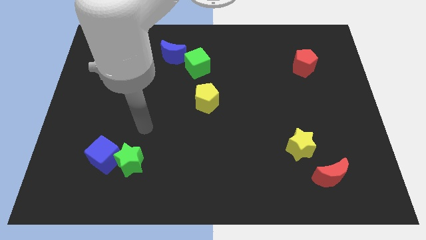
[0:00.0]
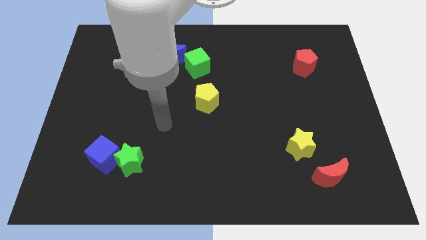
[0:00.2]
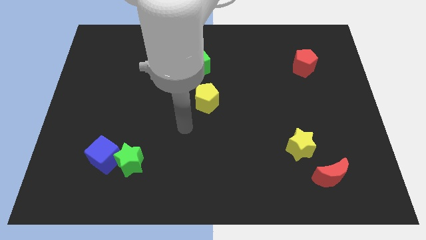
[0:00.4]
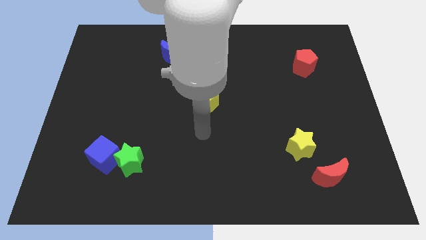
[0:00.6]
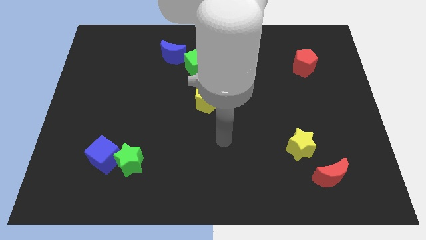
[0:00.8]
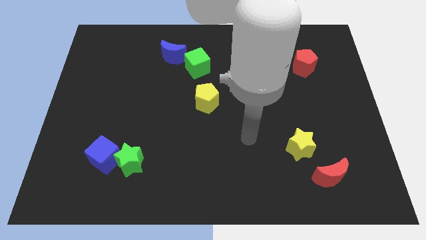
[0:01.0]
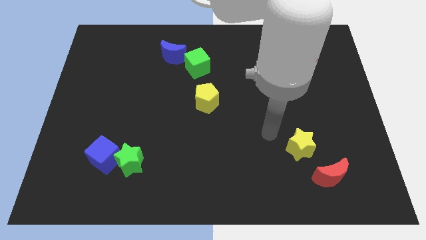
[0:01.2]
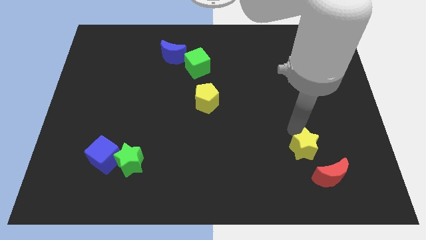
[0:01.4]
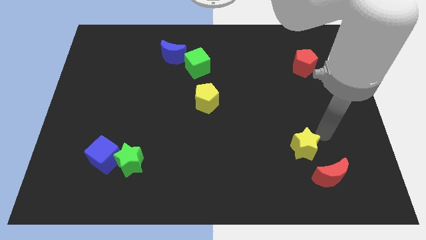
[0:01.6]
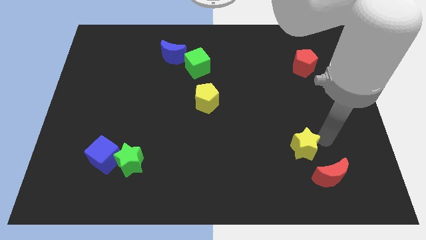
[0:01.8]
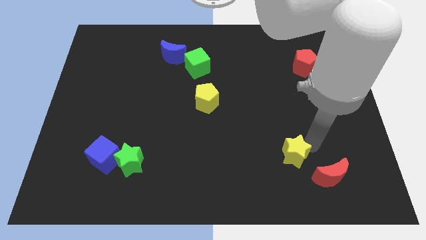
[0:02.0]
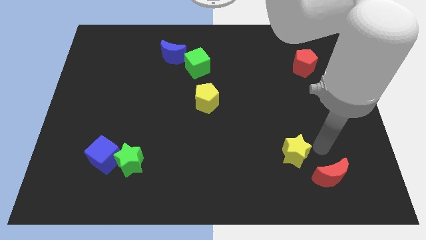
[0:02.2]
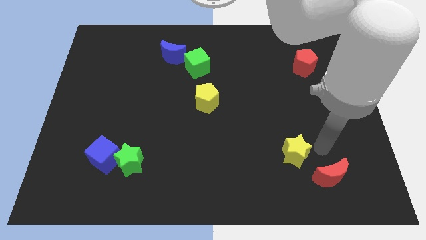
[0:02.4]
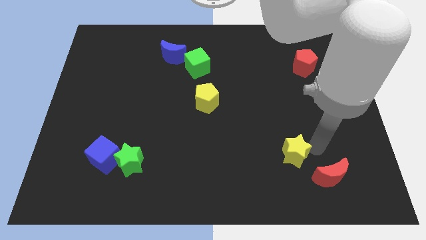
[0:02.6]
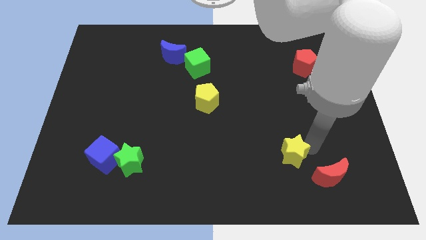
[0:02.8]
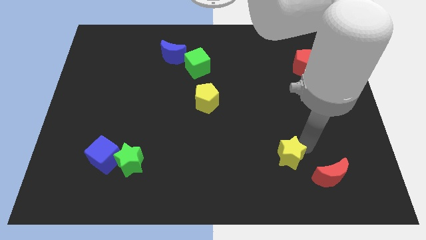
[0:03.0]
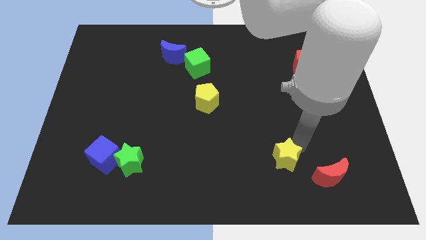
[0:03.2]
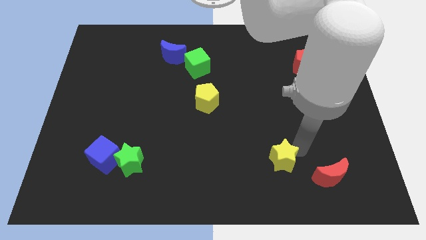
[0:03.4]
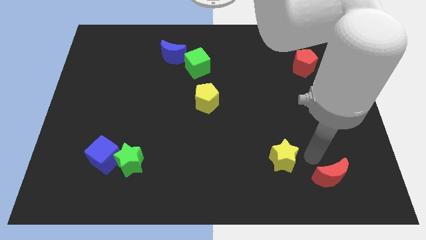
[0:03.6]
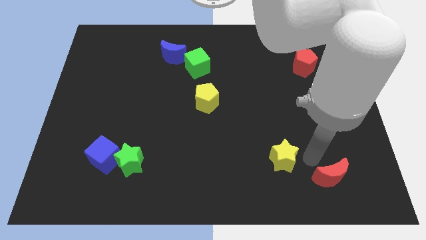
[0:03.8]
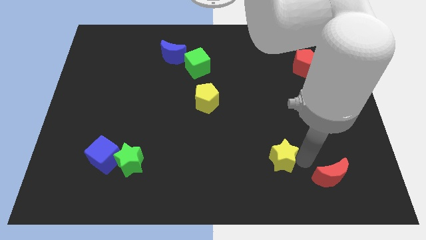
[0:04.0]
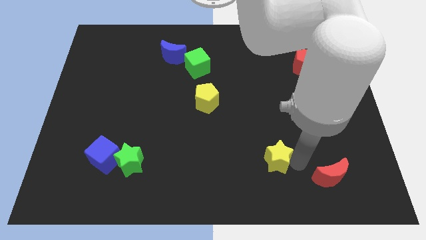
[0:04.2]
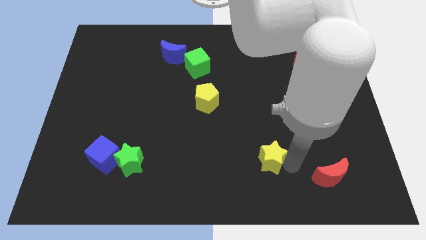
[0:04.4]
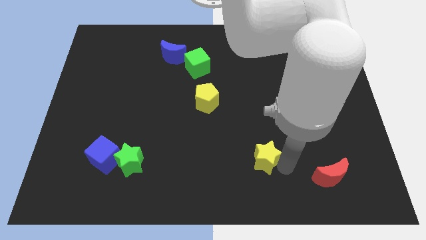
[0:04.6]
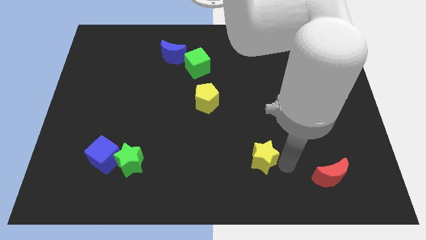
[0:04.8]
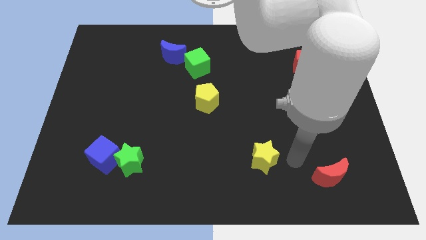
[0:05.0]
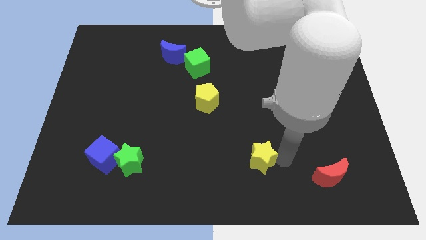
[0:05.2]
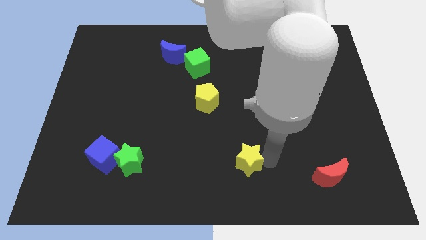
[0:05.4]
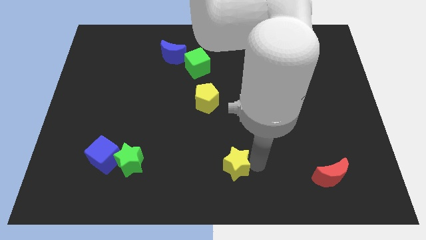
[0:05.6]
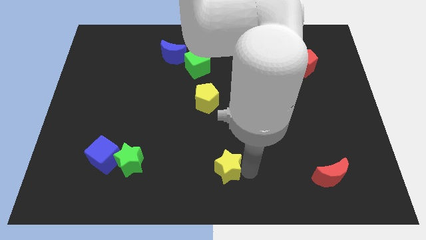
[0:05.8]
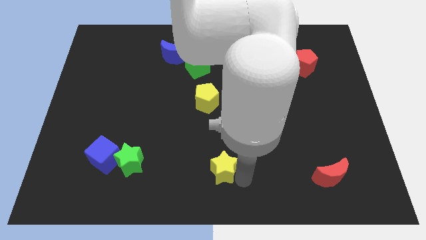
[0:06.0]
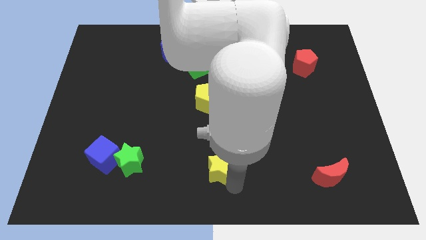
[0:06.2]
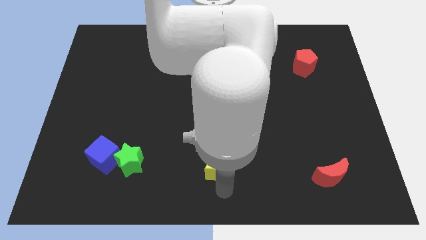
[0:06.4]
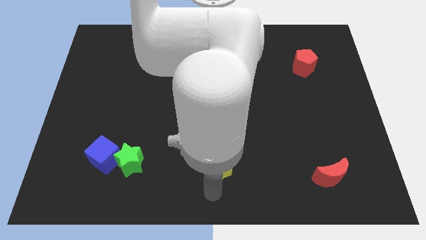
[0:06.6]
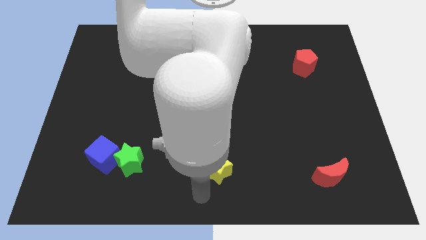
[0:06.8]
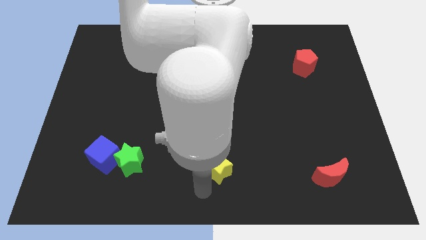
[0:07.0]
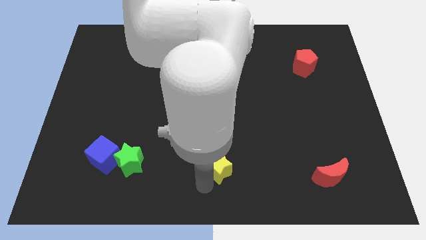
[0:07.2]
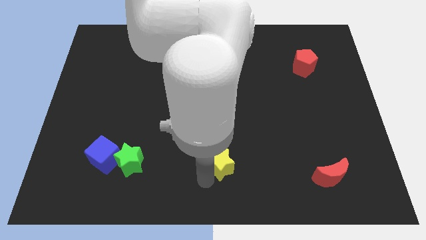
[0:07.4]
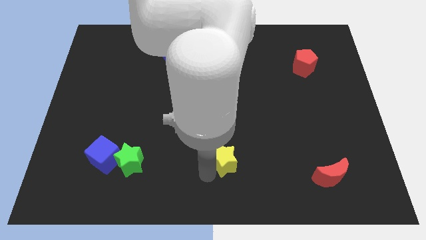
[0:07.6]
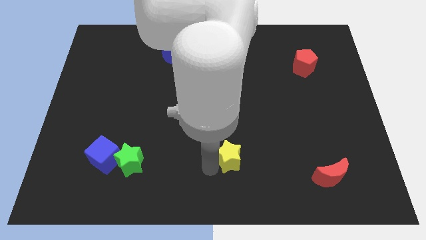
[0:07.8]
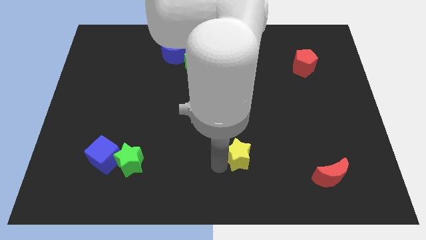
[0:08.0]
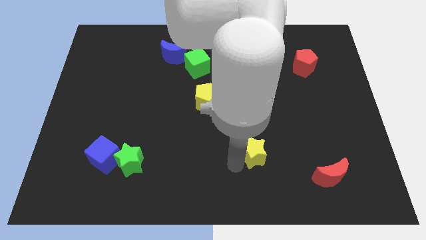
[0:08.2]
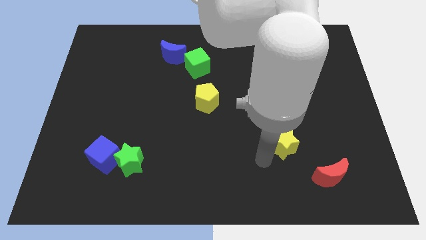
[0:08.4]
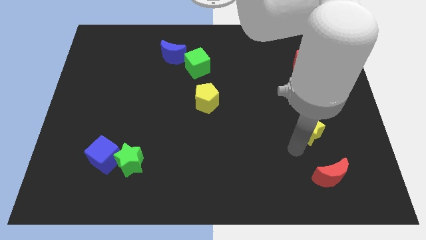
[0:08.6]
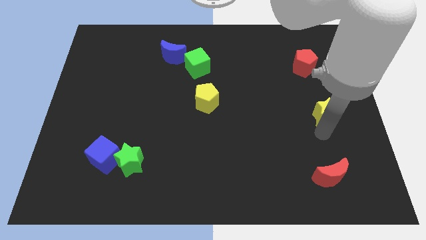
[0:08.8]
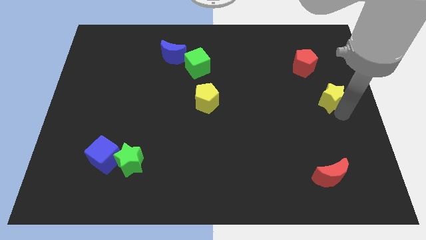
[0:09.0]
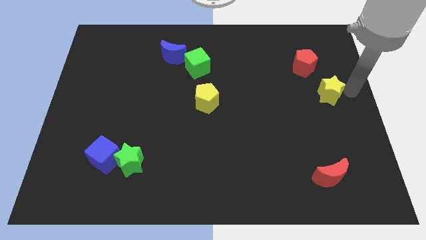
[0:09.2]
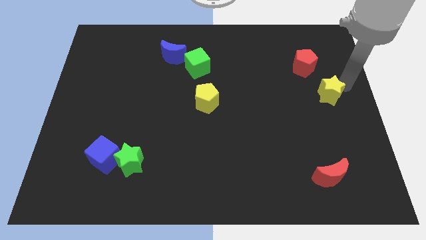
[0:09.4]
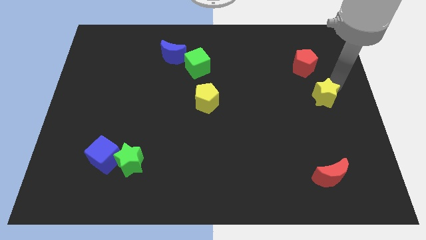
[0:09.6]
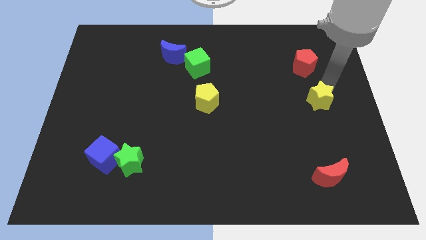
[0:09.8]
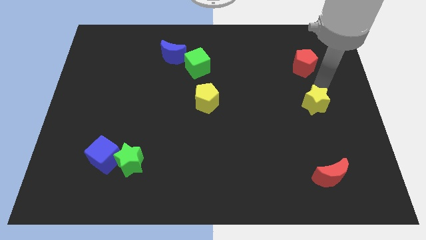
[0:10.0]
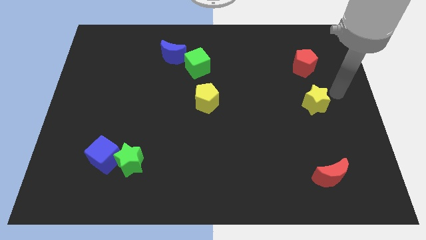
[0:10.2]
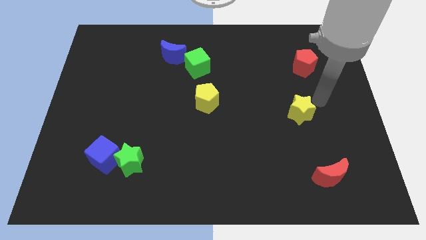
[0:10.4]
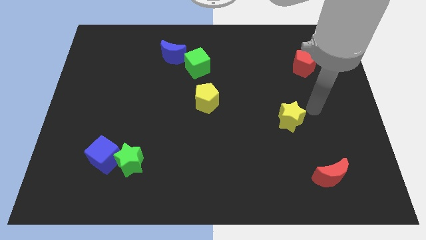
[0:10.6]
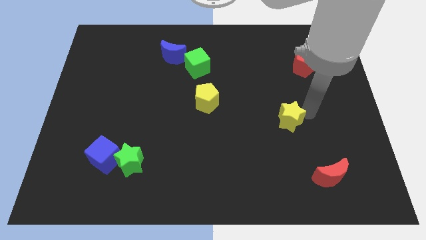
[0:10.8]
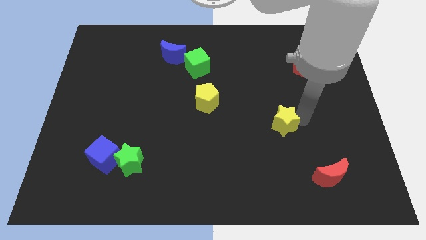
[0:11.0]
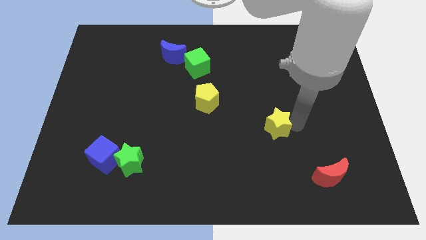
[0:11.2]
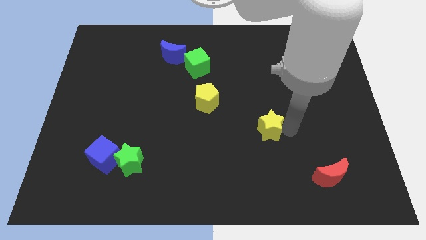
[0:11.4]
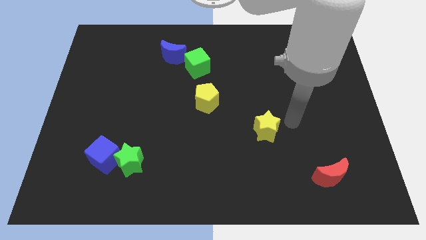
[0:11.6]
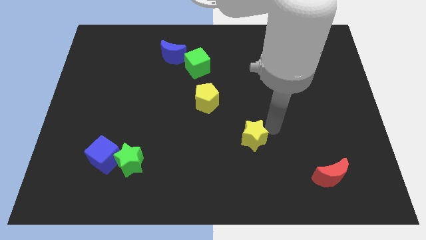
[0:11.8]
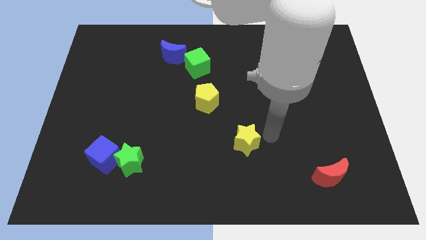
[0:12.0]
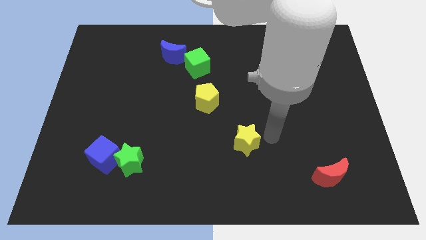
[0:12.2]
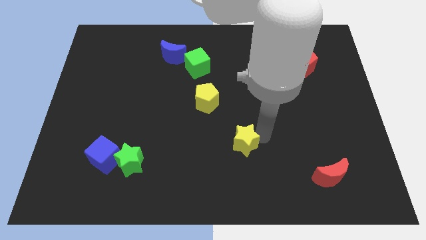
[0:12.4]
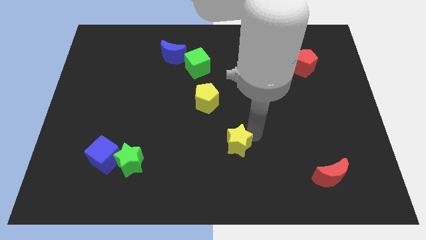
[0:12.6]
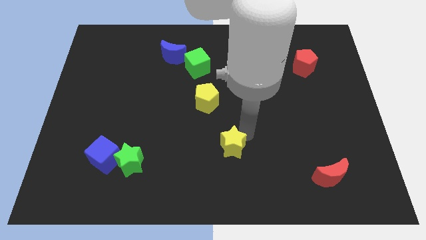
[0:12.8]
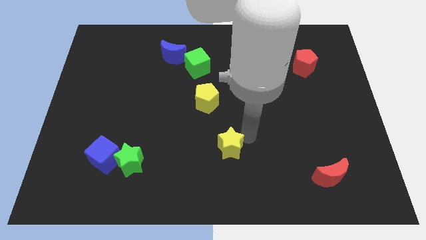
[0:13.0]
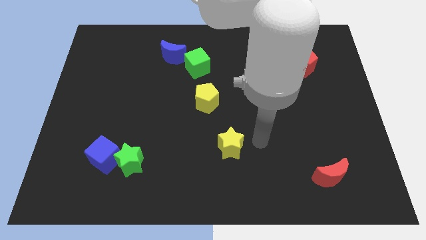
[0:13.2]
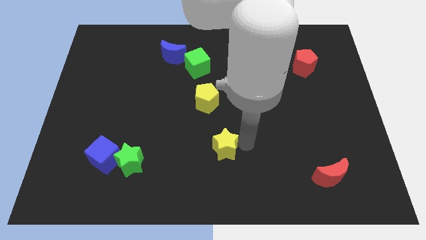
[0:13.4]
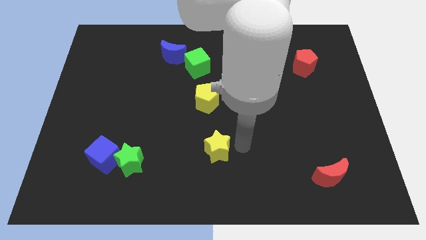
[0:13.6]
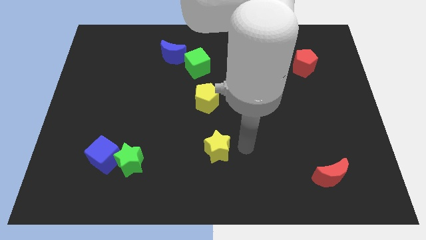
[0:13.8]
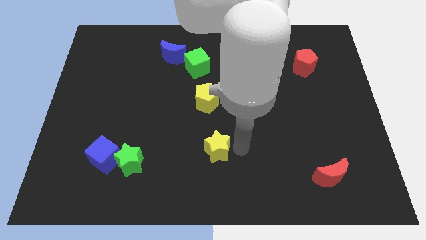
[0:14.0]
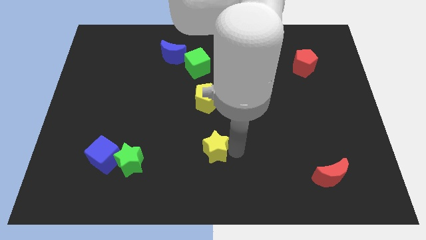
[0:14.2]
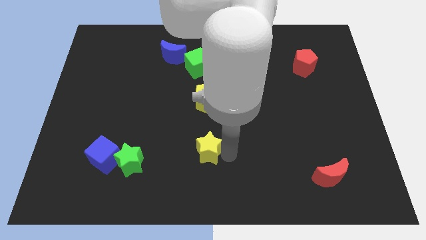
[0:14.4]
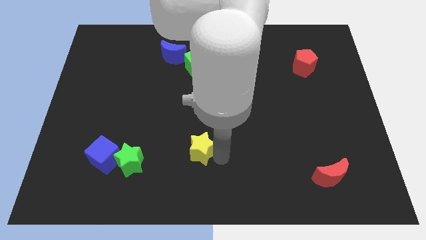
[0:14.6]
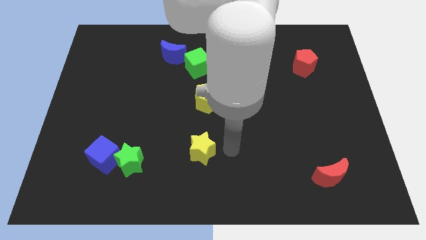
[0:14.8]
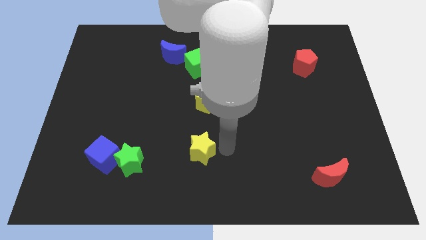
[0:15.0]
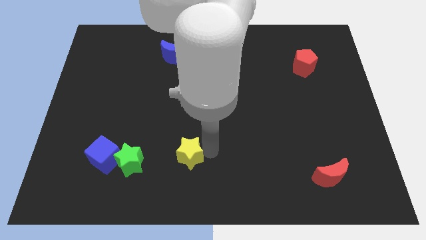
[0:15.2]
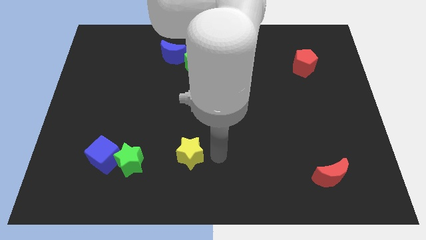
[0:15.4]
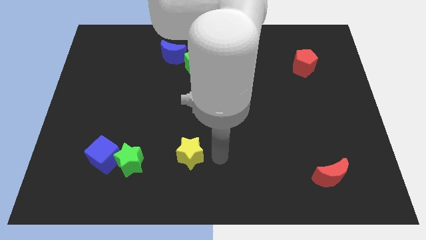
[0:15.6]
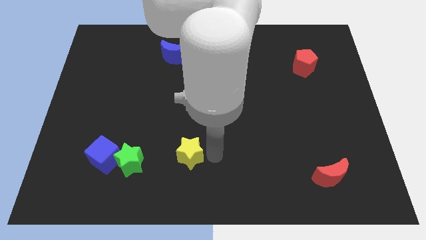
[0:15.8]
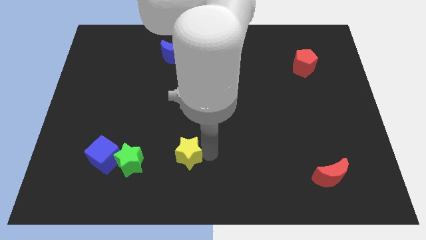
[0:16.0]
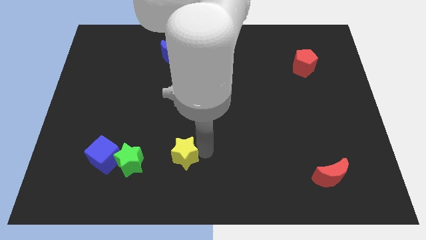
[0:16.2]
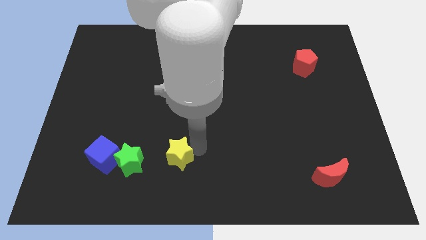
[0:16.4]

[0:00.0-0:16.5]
move the yellow star just right of the blue cube
